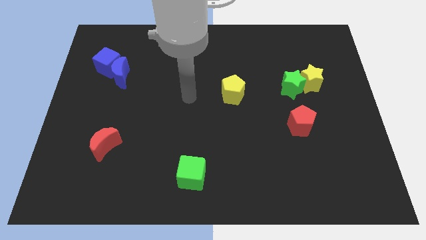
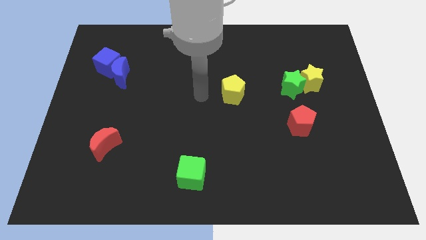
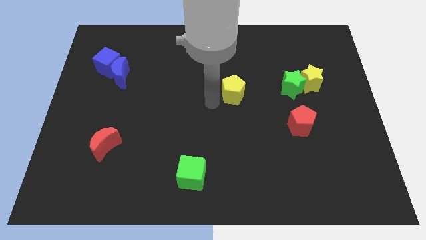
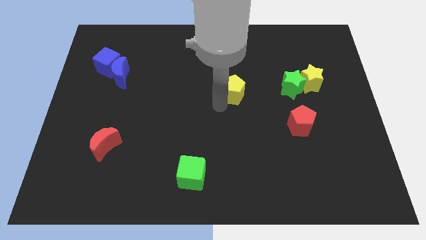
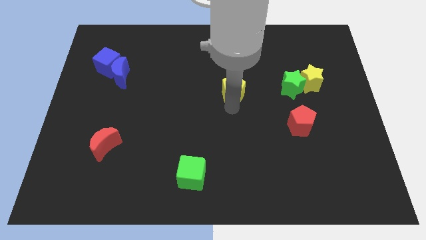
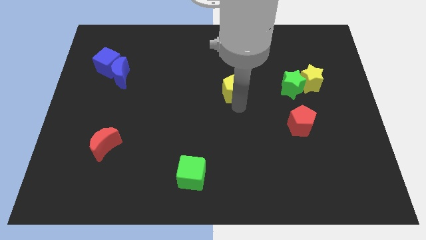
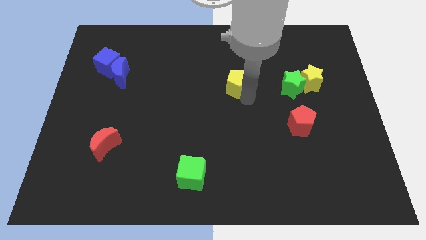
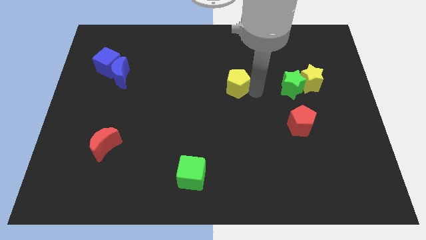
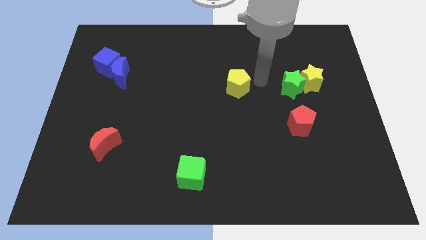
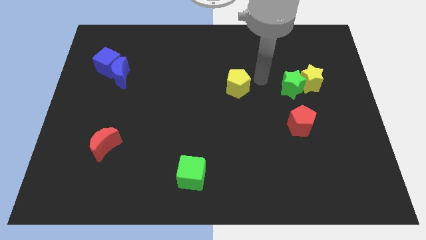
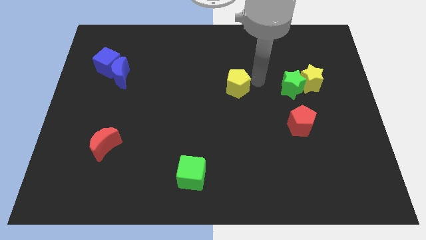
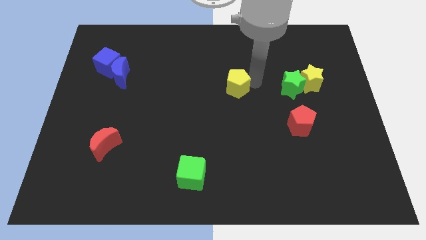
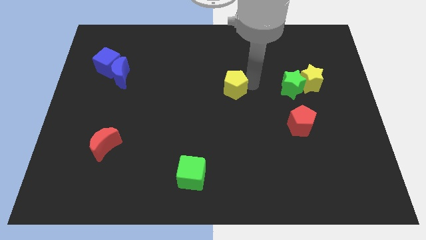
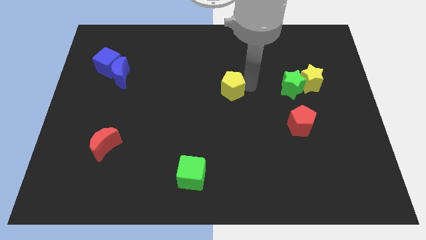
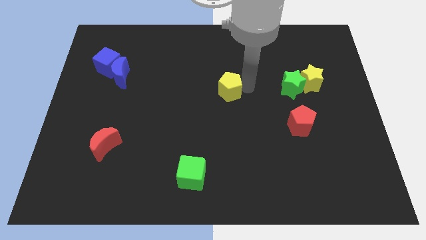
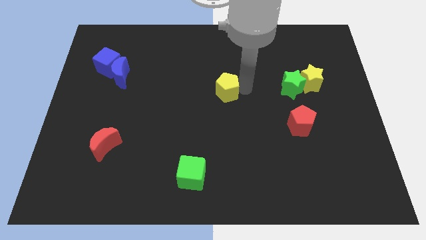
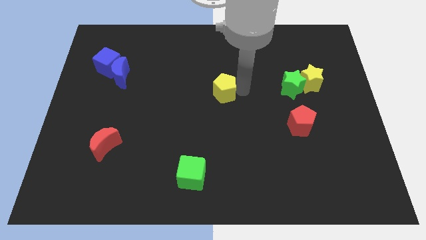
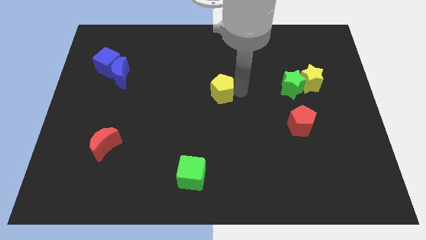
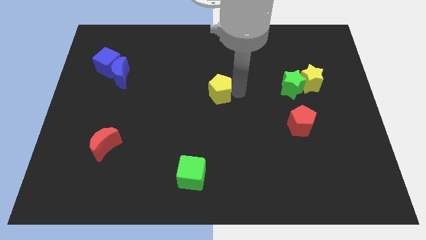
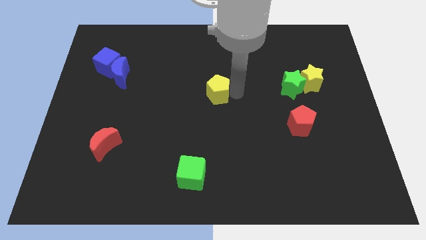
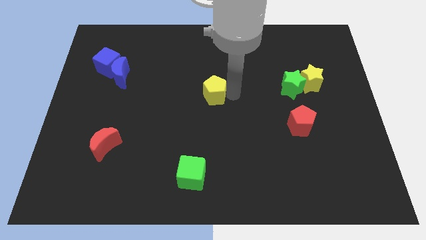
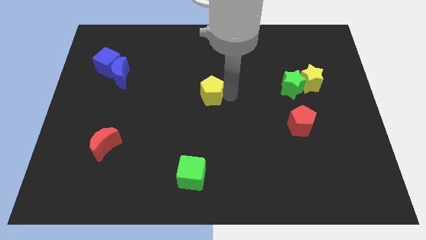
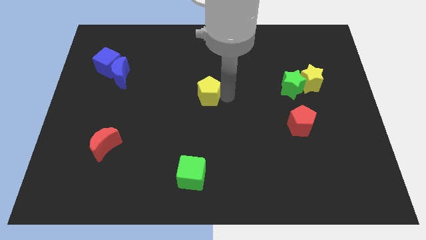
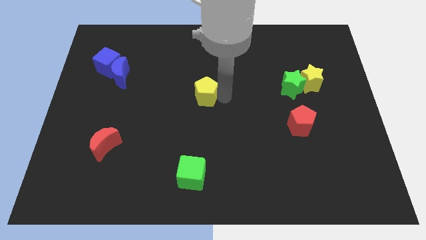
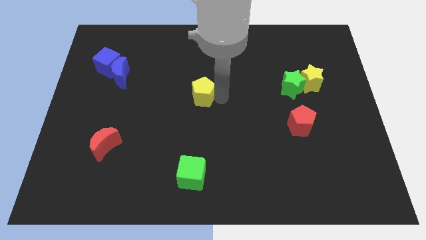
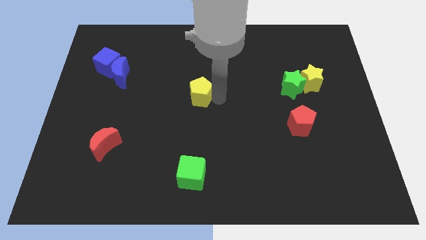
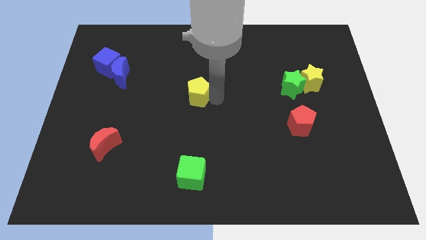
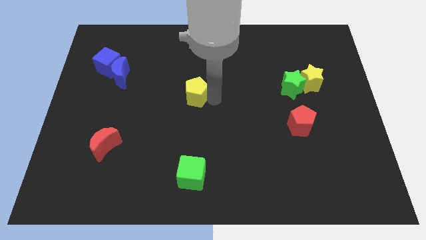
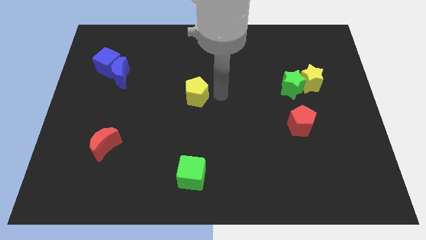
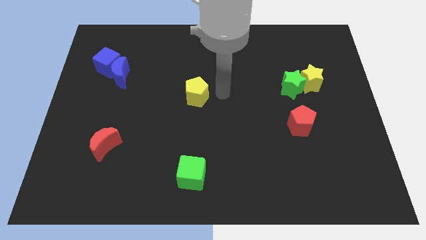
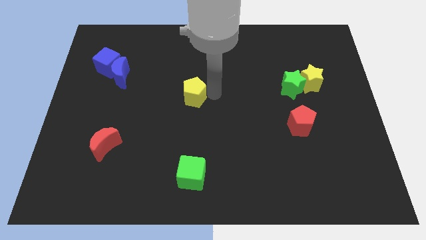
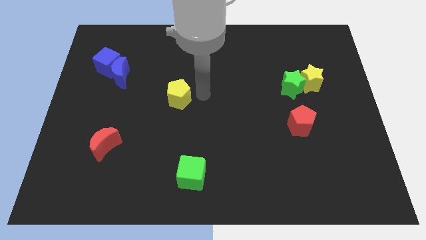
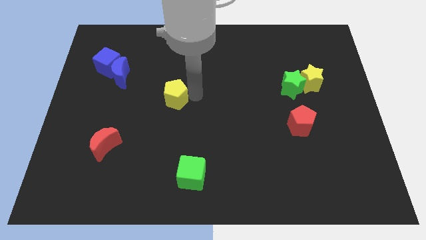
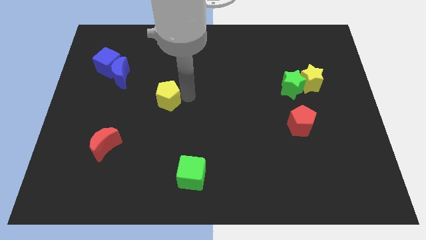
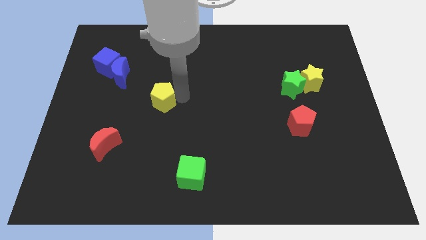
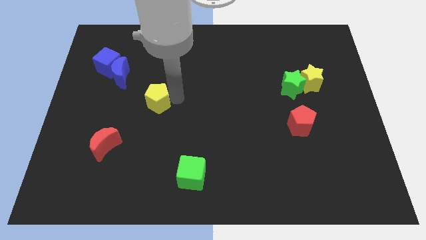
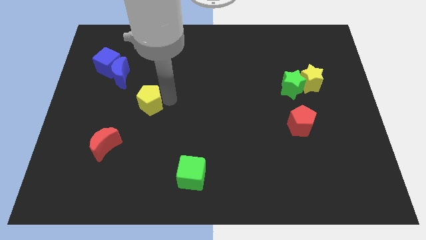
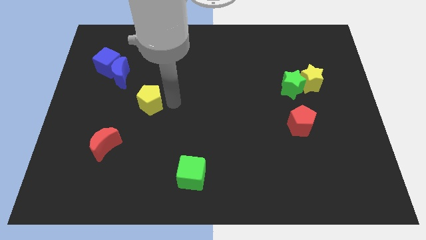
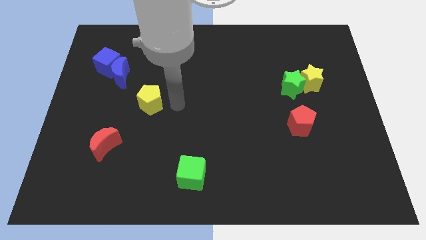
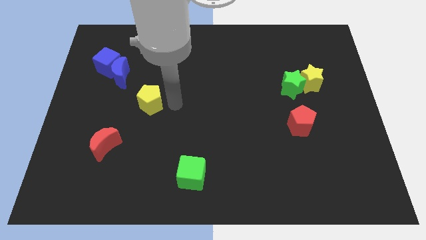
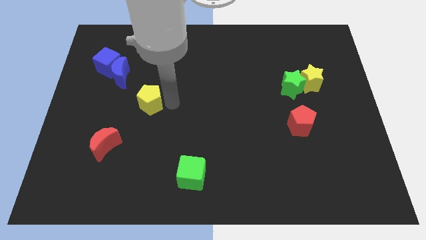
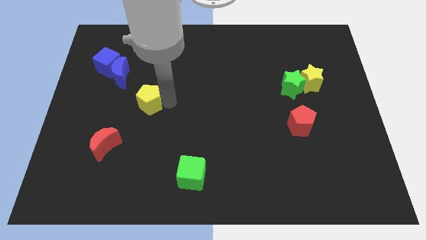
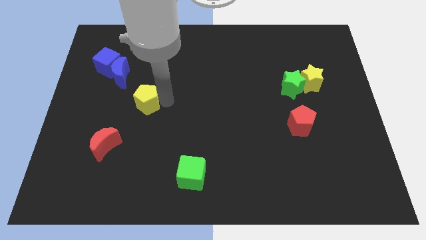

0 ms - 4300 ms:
push the yellow pentagon left

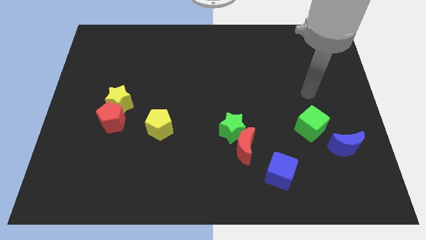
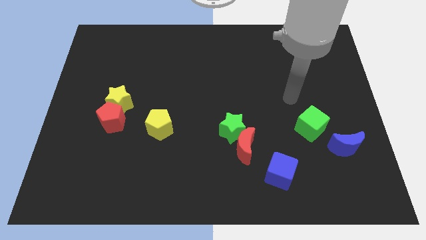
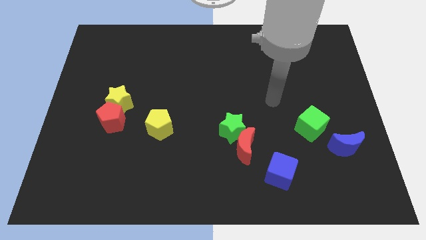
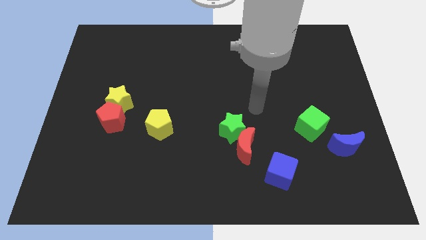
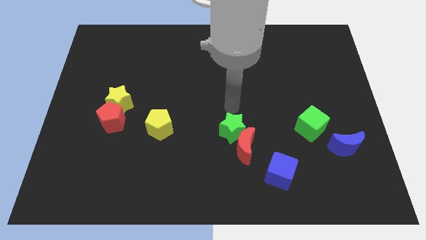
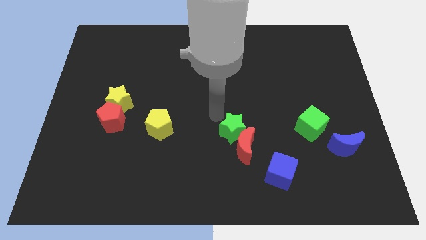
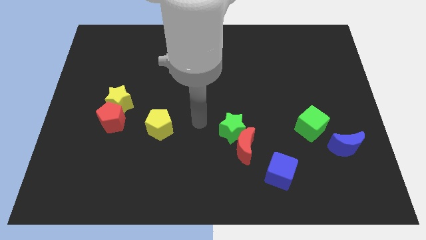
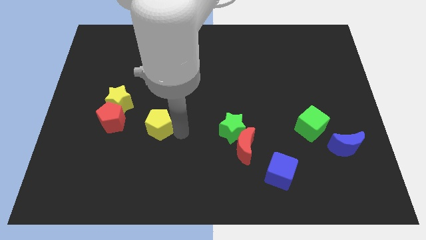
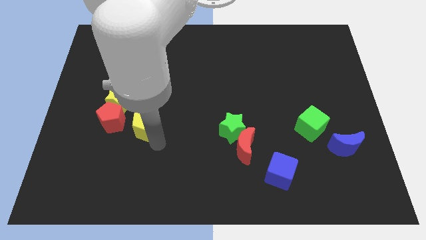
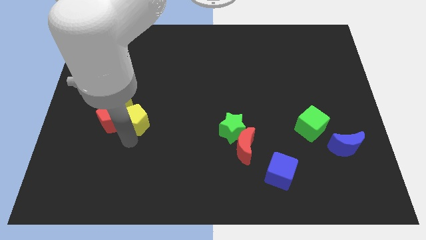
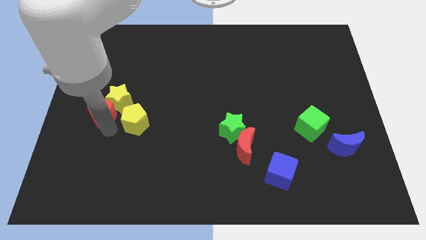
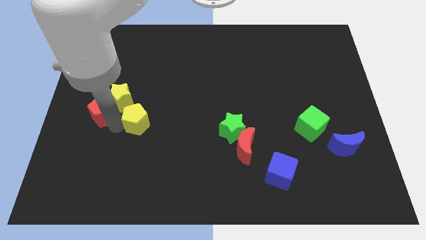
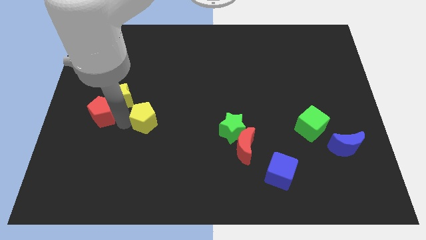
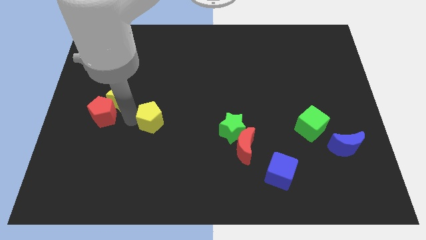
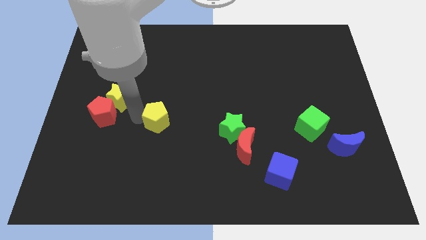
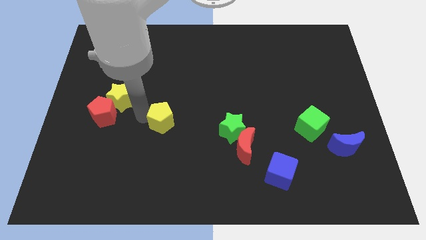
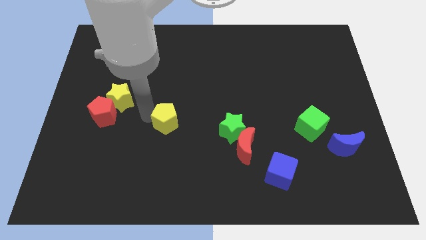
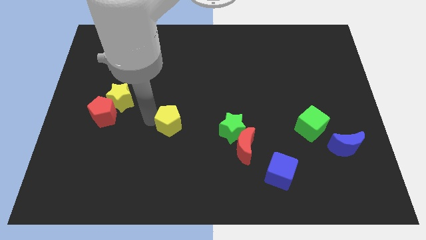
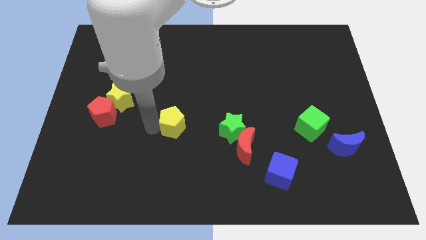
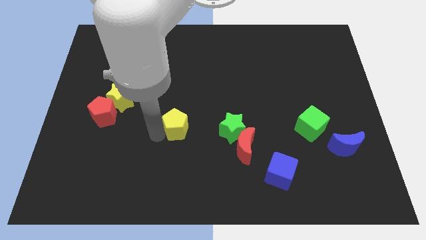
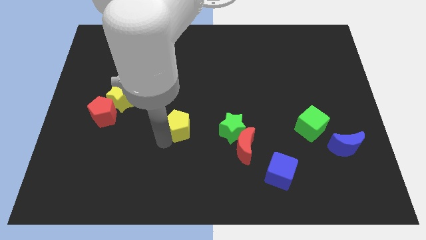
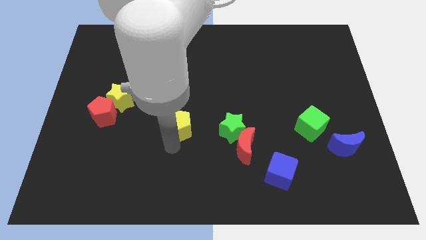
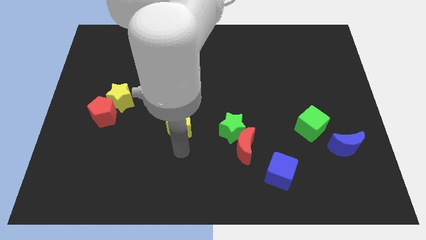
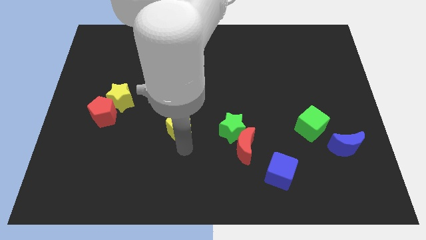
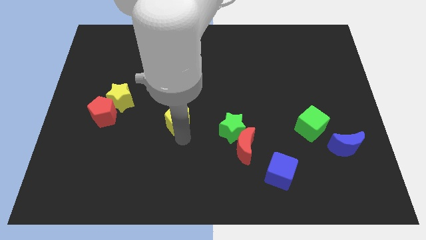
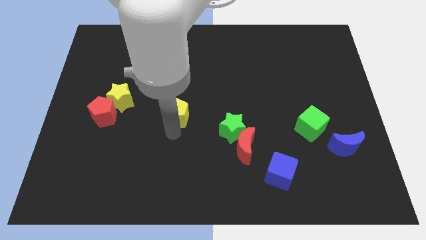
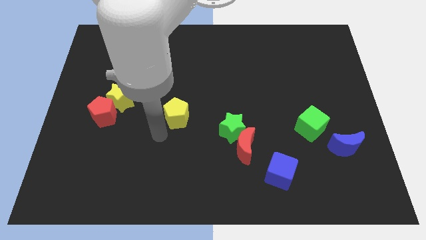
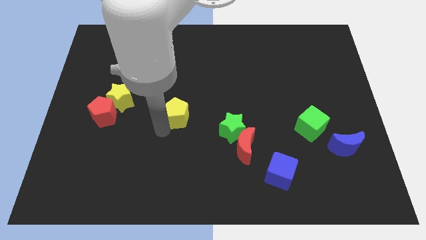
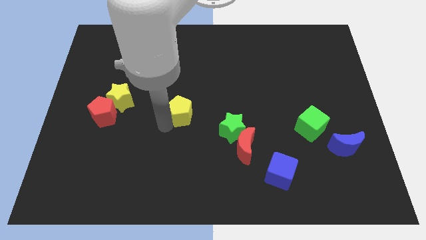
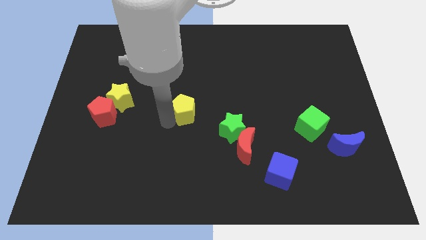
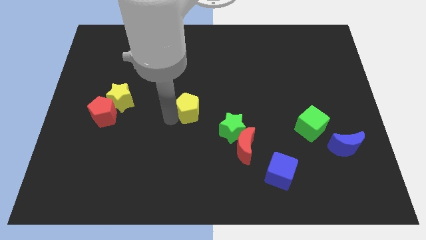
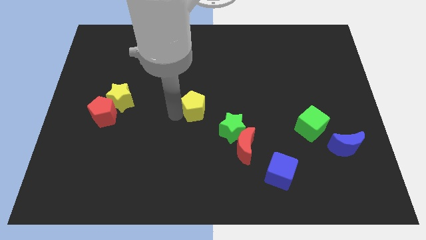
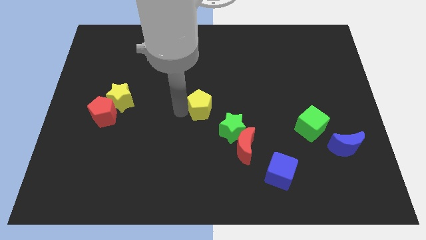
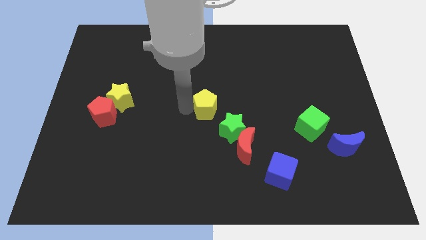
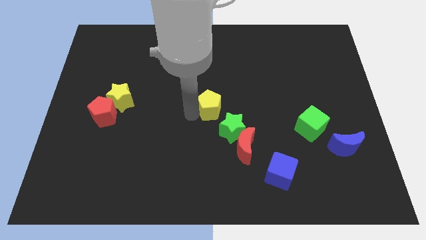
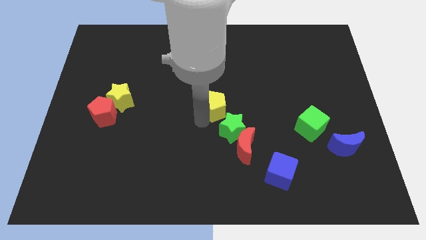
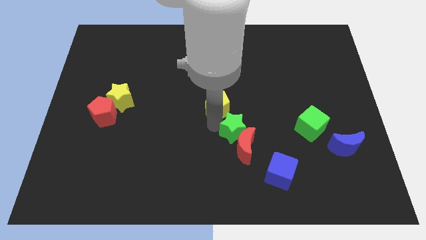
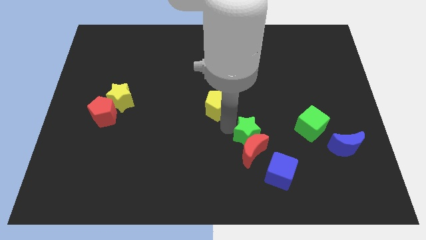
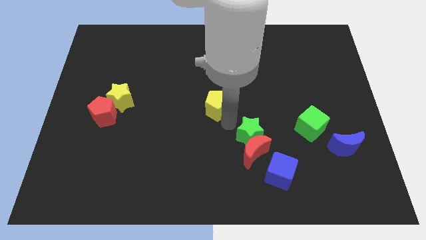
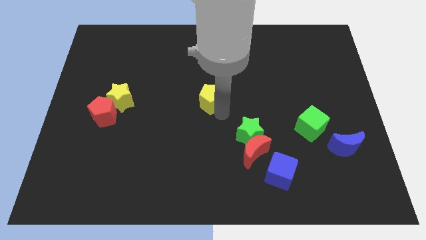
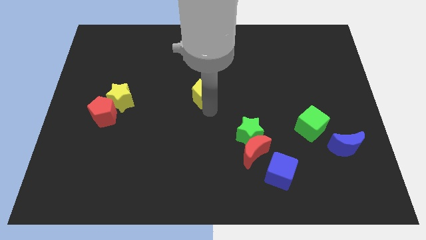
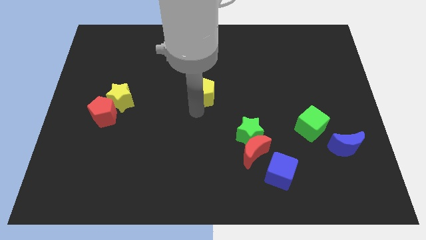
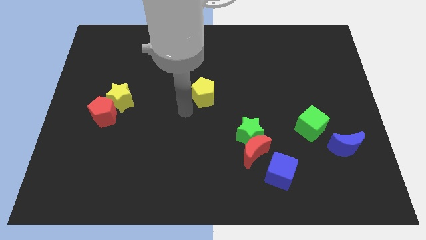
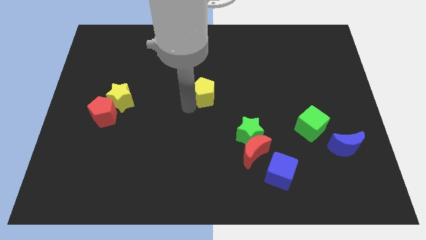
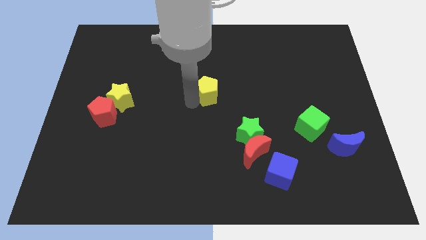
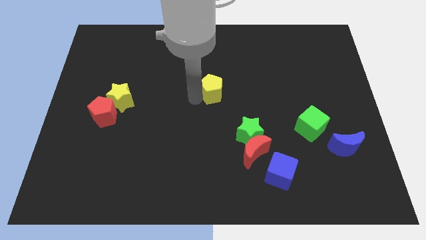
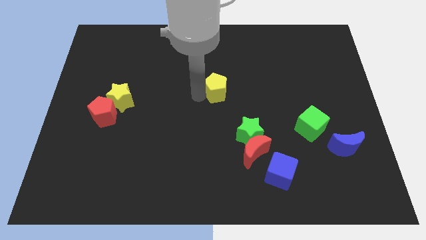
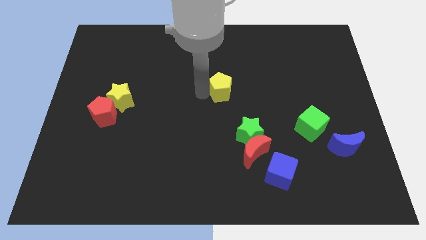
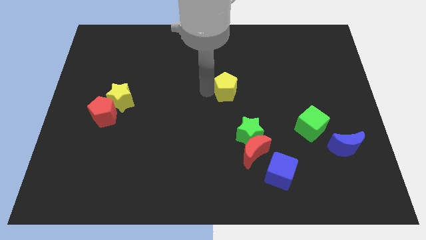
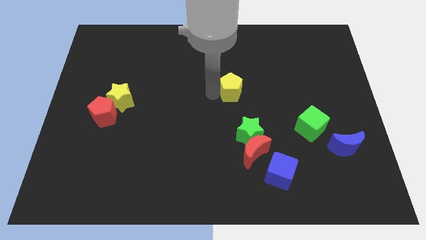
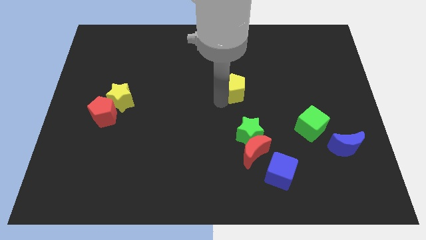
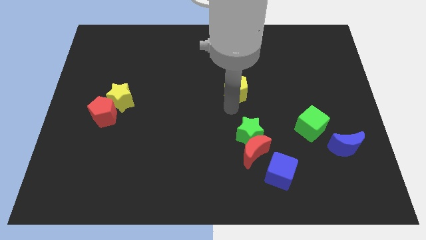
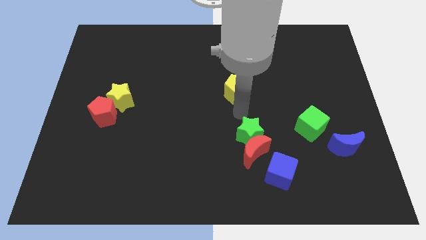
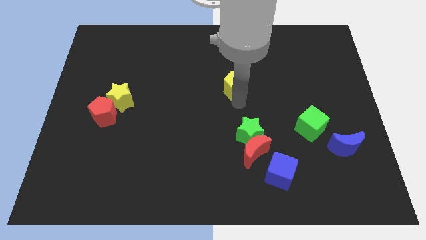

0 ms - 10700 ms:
push the yellow pentagon up and to the right diagonally
